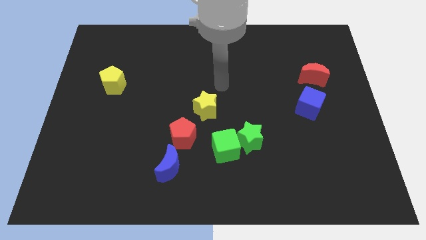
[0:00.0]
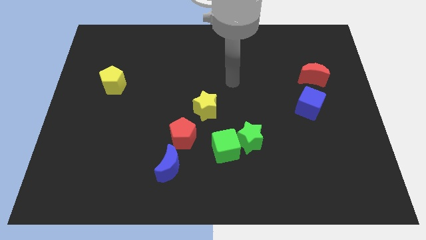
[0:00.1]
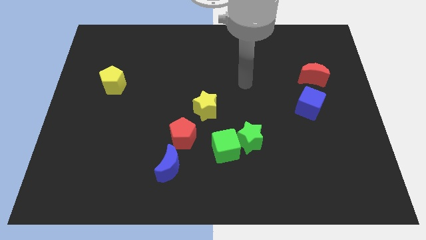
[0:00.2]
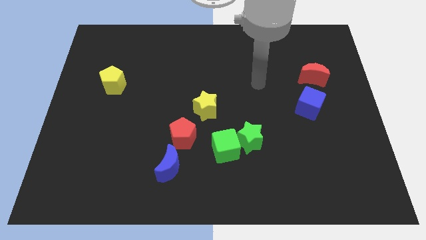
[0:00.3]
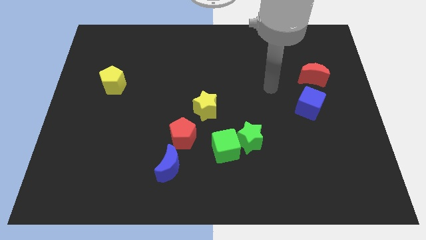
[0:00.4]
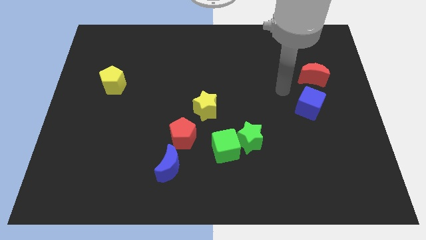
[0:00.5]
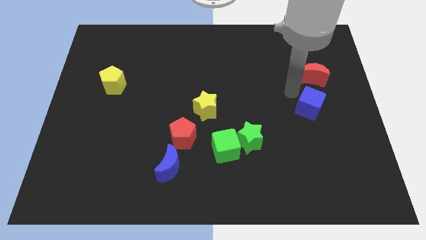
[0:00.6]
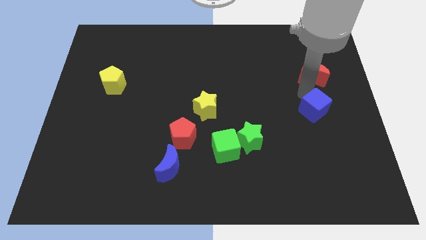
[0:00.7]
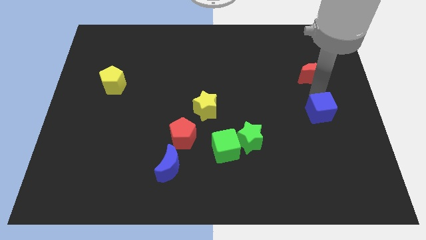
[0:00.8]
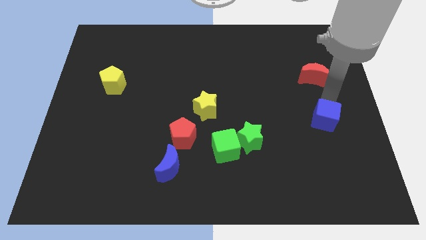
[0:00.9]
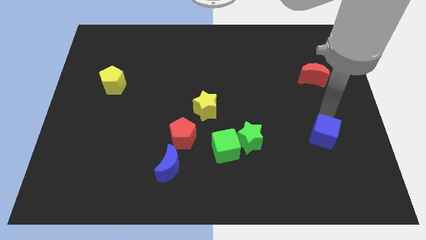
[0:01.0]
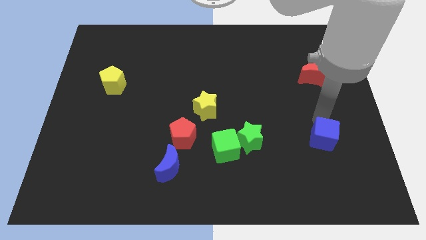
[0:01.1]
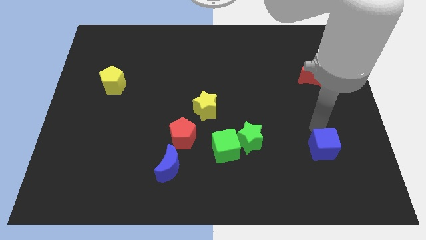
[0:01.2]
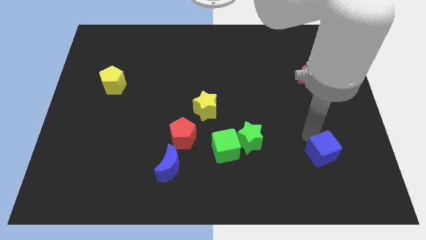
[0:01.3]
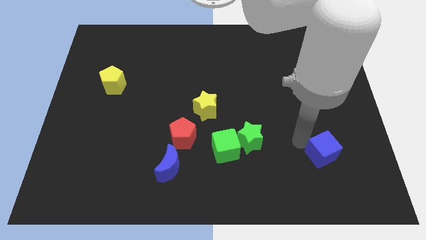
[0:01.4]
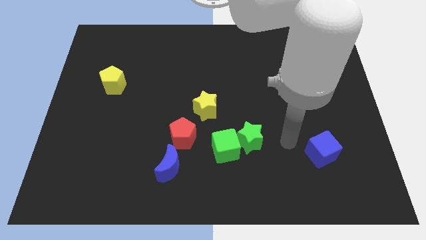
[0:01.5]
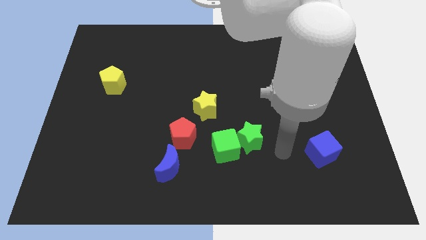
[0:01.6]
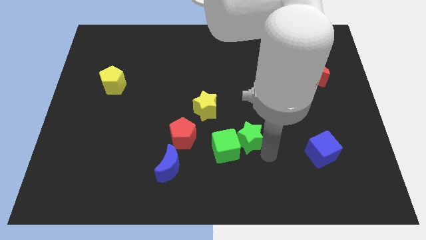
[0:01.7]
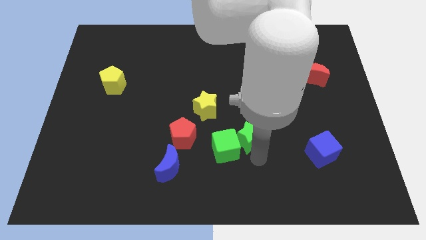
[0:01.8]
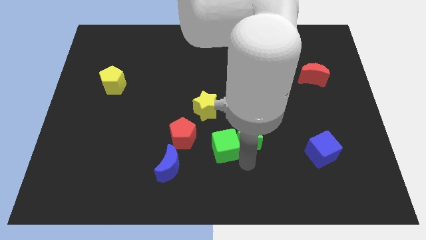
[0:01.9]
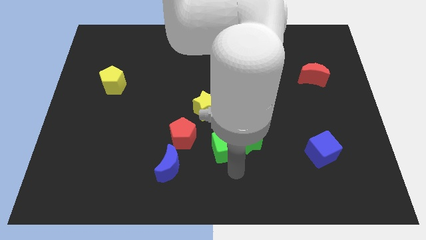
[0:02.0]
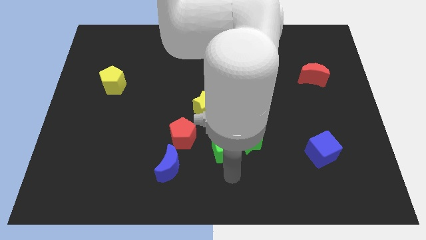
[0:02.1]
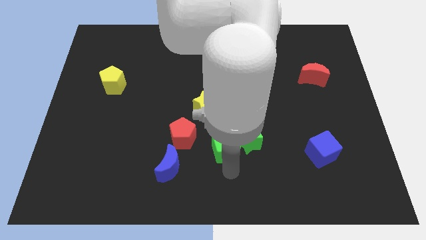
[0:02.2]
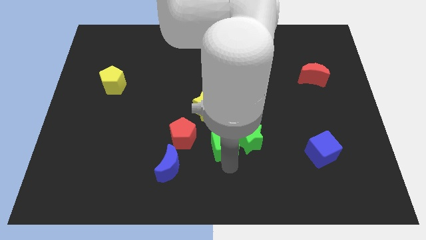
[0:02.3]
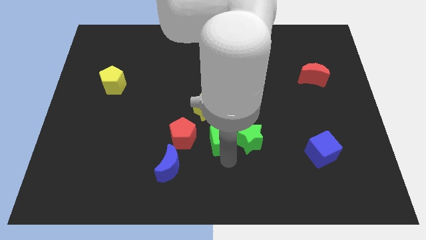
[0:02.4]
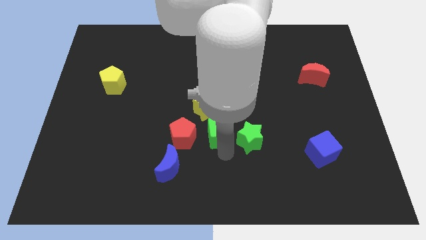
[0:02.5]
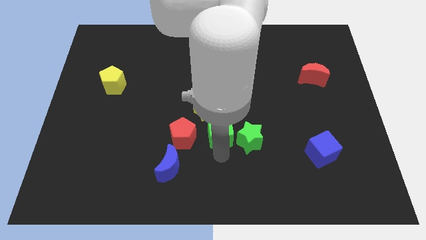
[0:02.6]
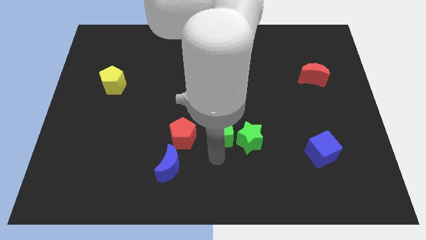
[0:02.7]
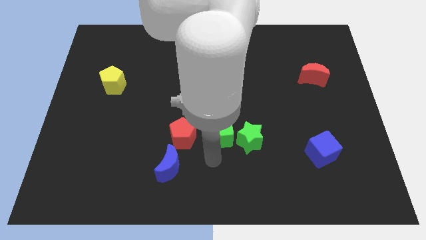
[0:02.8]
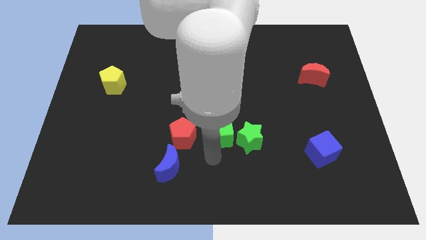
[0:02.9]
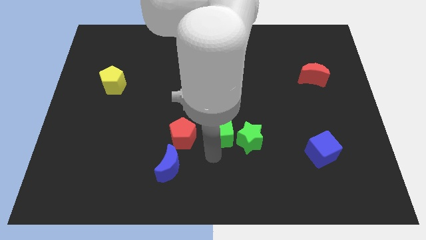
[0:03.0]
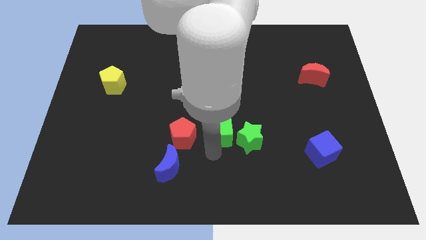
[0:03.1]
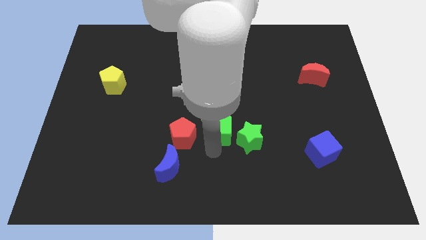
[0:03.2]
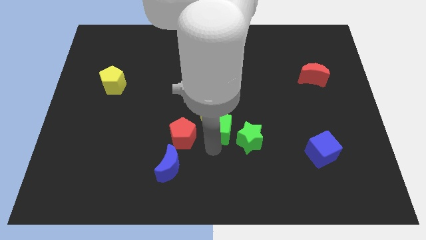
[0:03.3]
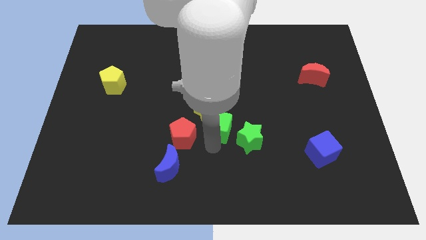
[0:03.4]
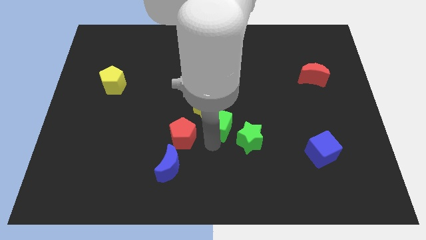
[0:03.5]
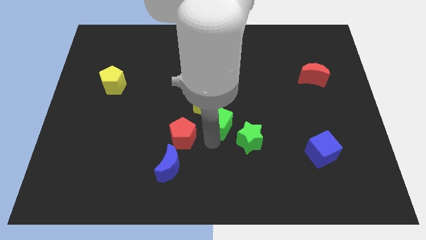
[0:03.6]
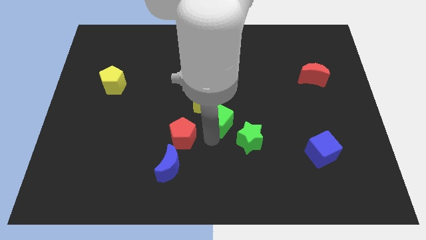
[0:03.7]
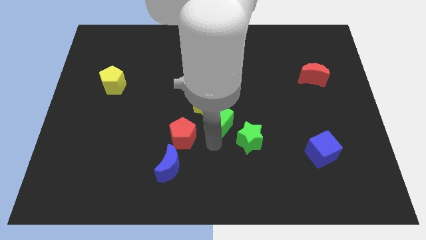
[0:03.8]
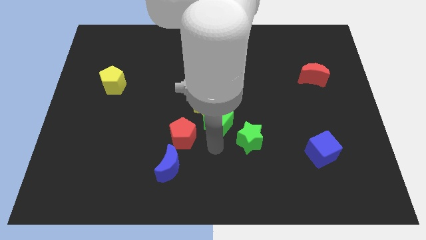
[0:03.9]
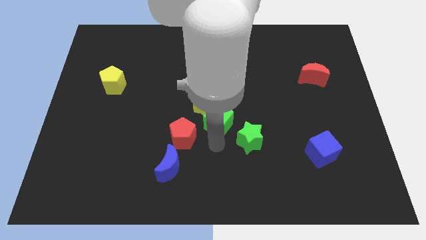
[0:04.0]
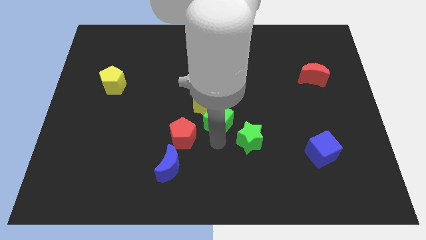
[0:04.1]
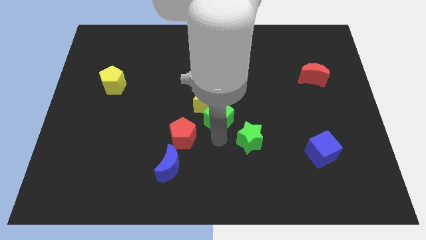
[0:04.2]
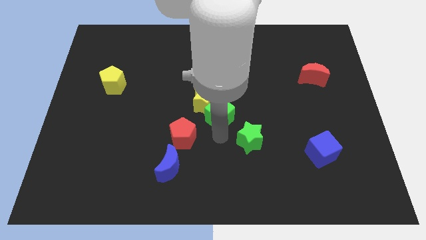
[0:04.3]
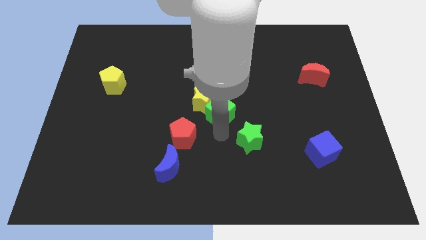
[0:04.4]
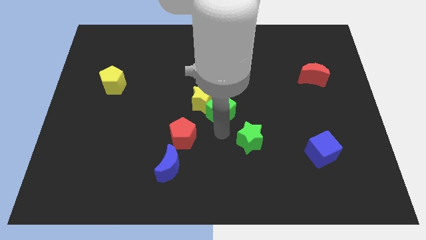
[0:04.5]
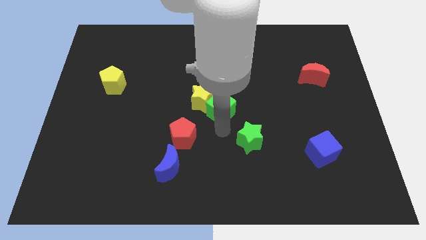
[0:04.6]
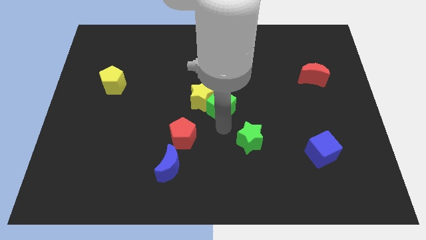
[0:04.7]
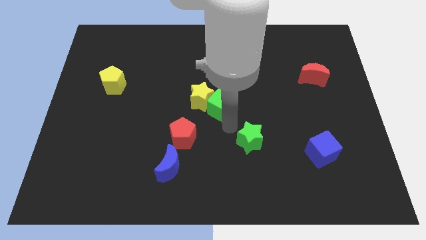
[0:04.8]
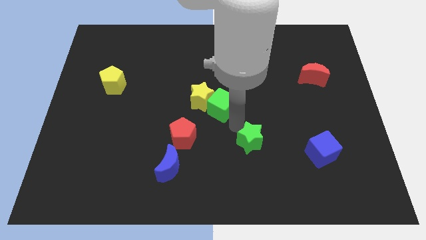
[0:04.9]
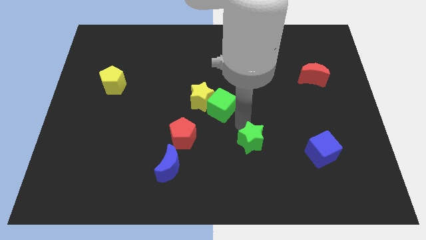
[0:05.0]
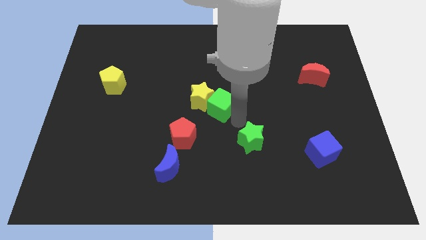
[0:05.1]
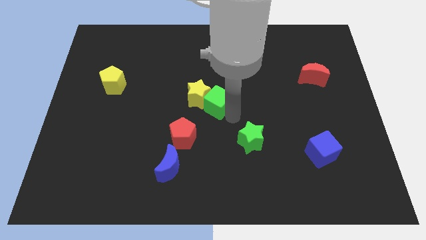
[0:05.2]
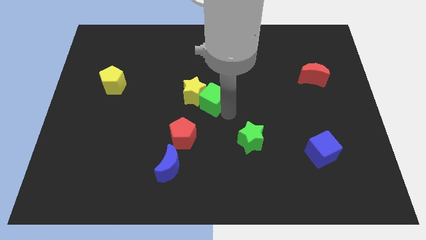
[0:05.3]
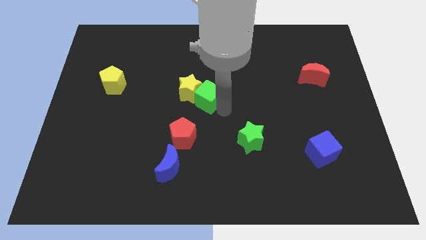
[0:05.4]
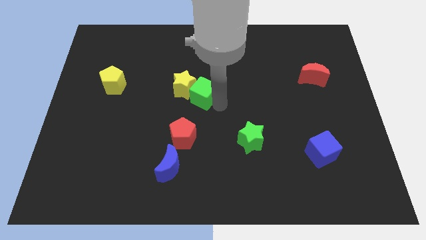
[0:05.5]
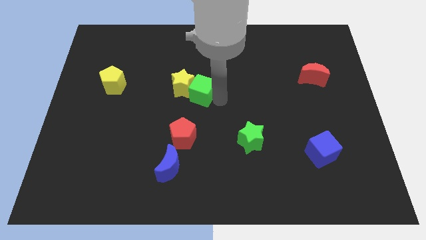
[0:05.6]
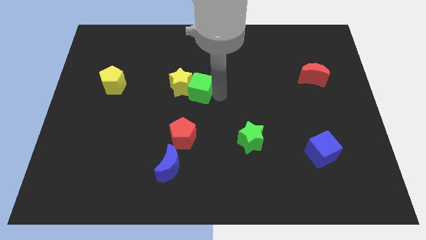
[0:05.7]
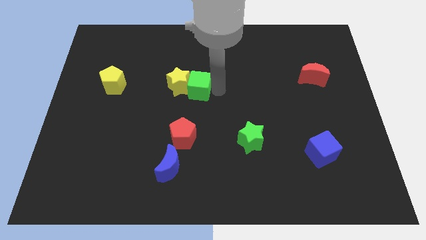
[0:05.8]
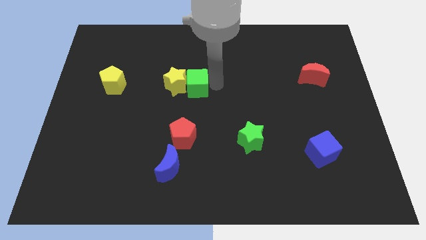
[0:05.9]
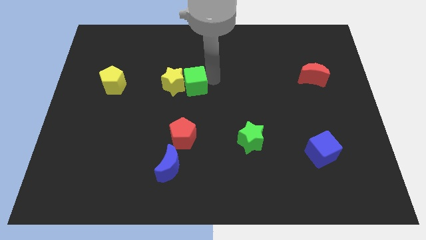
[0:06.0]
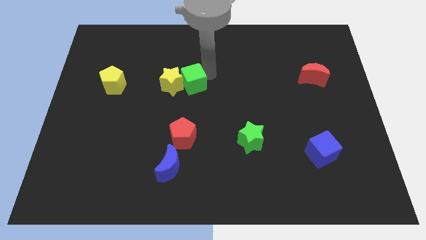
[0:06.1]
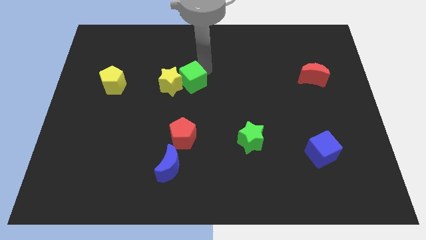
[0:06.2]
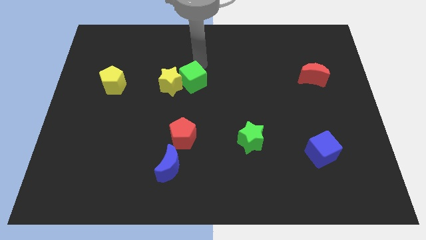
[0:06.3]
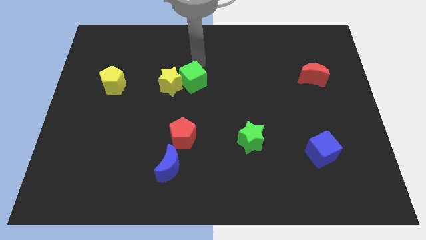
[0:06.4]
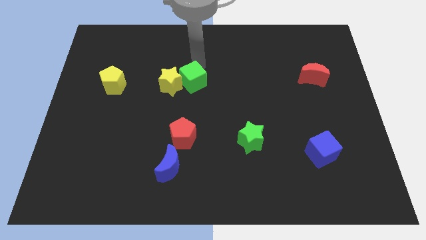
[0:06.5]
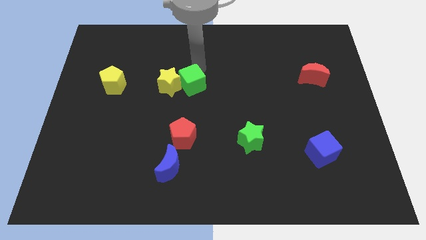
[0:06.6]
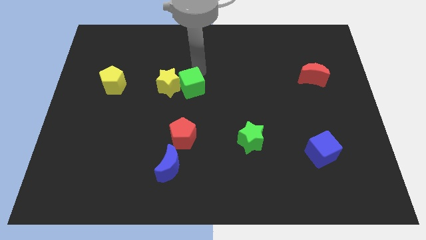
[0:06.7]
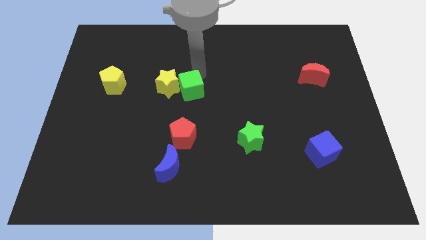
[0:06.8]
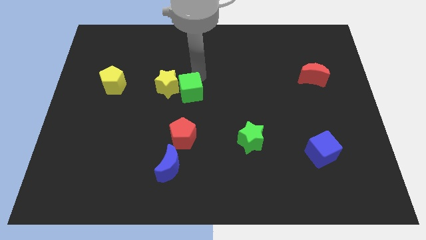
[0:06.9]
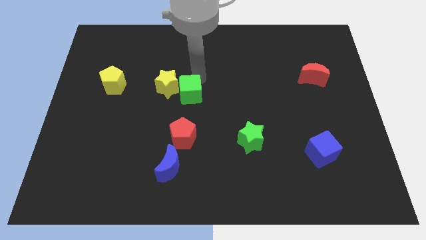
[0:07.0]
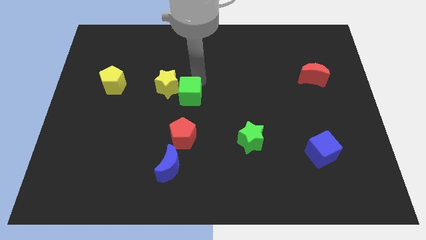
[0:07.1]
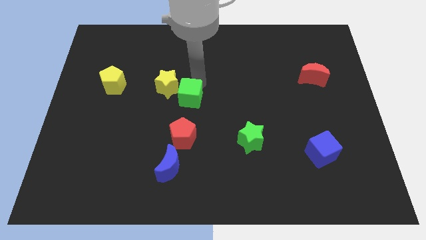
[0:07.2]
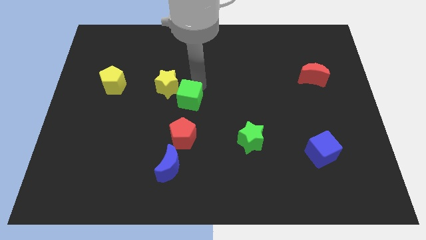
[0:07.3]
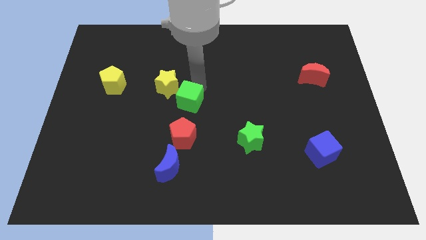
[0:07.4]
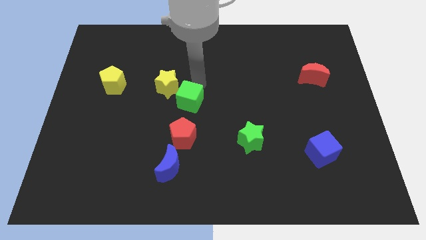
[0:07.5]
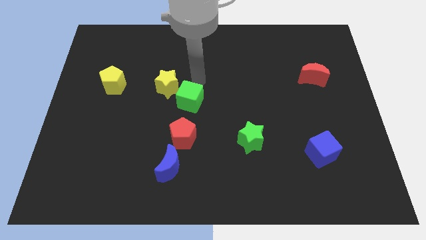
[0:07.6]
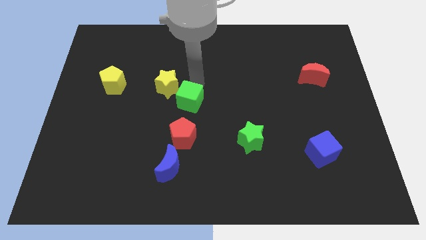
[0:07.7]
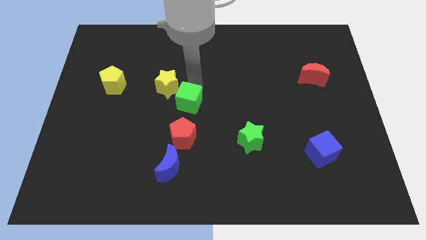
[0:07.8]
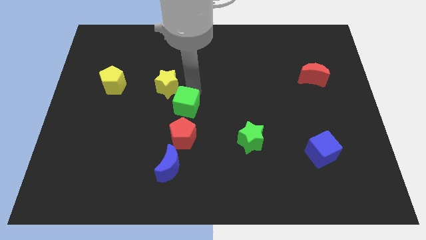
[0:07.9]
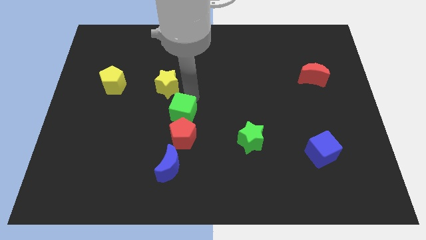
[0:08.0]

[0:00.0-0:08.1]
put the green cube to the top side of the blue moon
